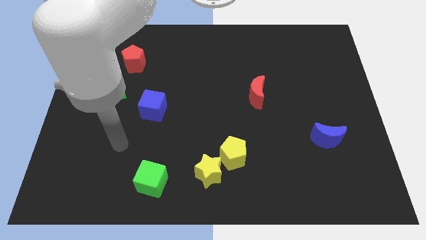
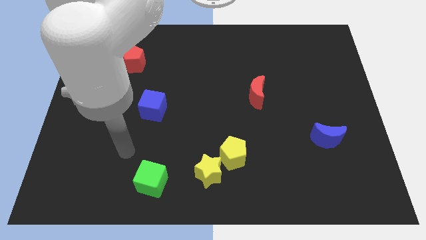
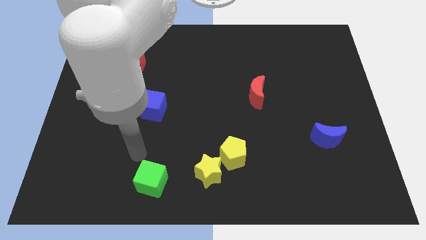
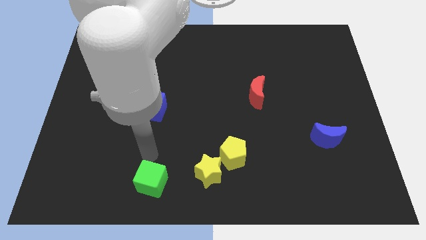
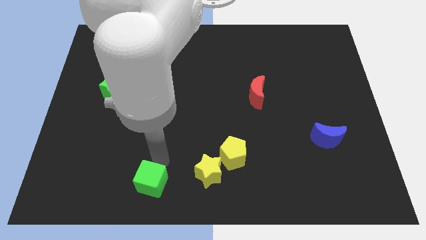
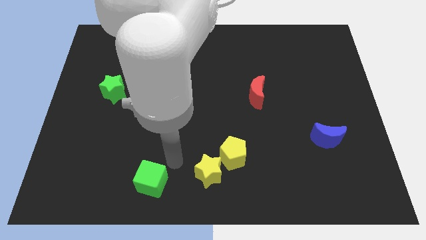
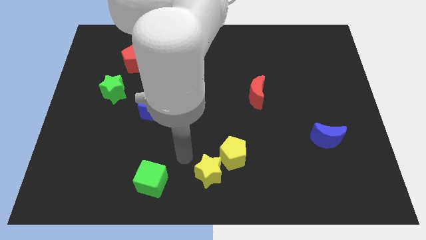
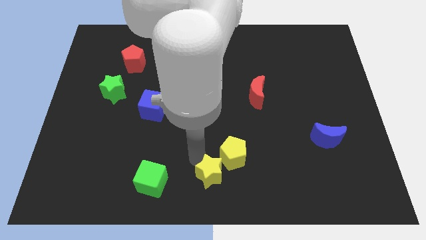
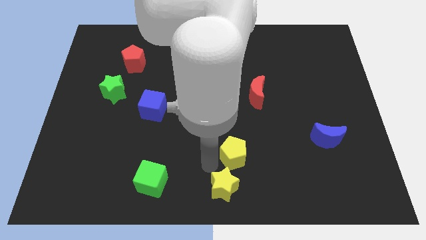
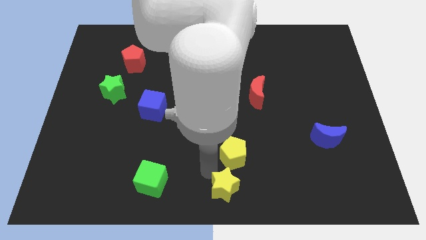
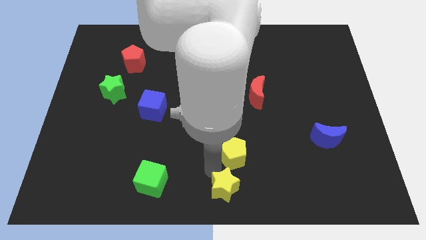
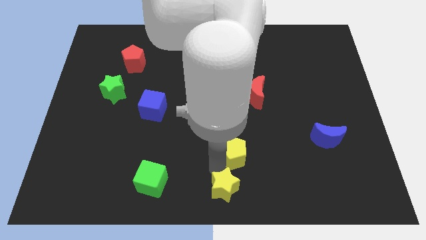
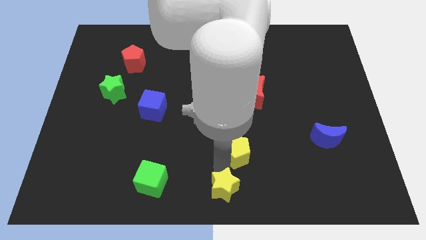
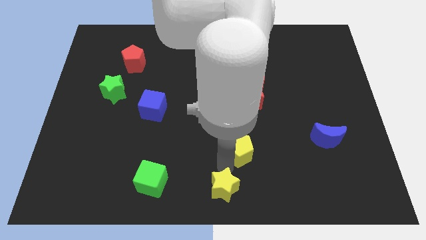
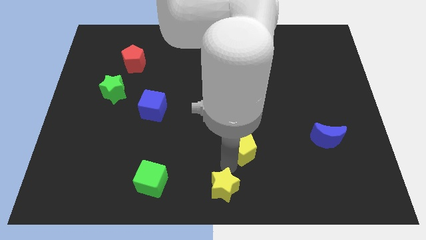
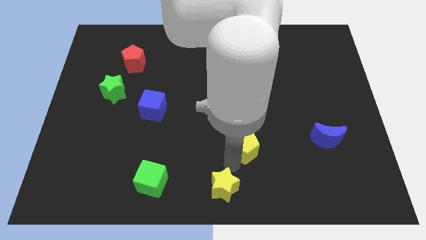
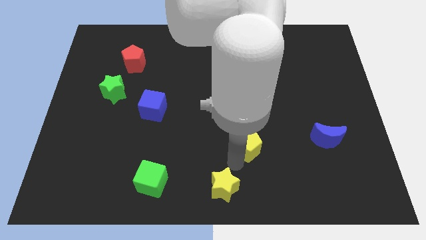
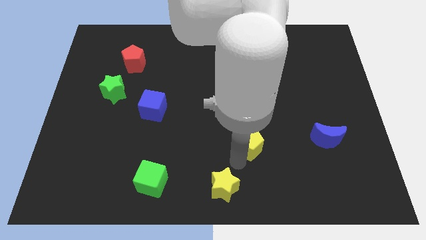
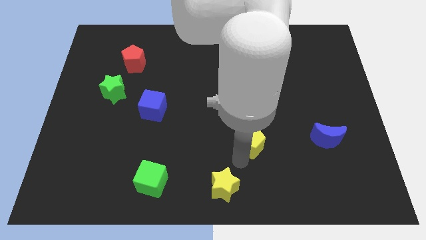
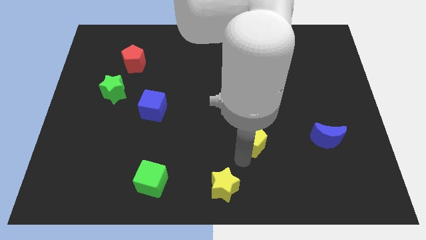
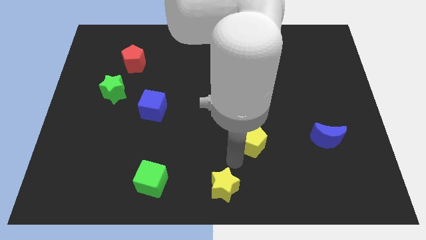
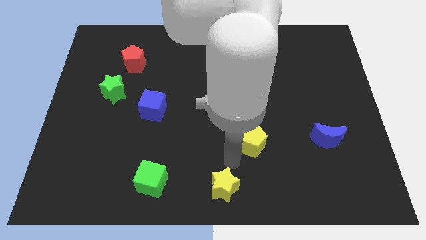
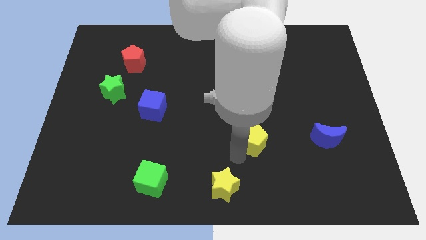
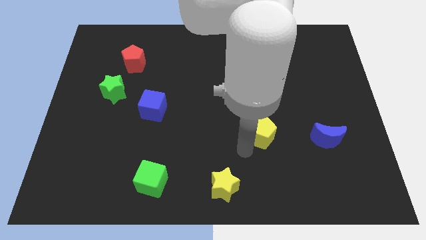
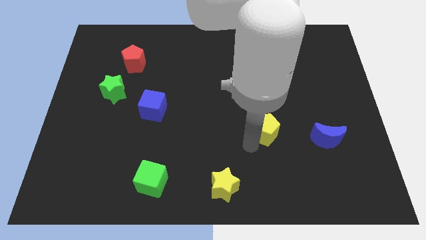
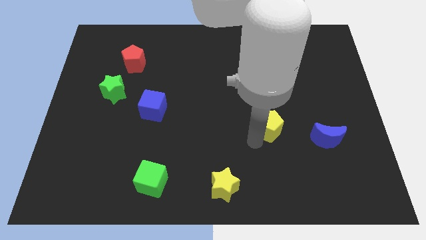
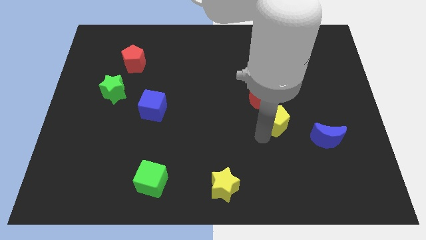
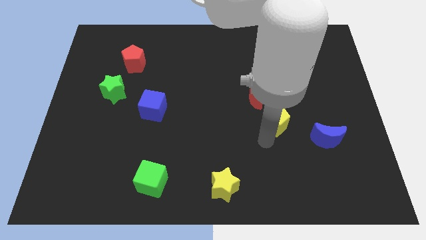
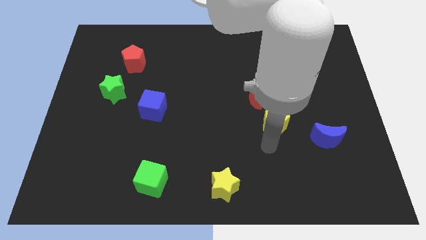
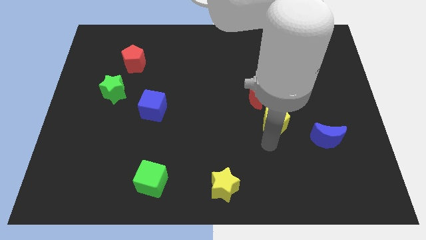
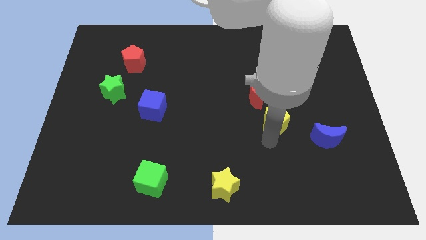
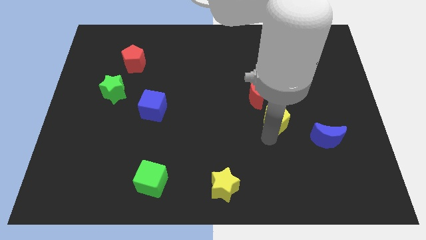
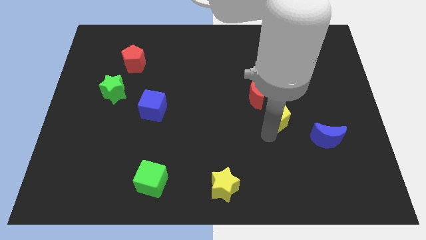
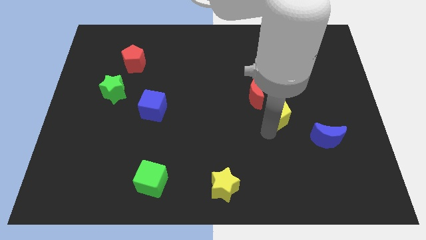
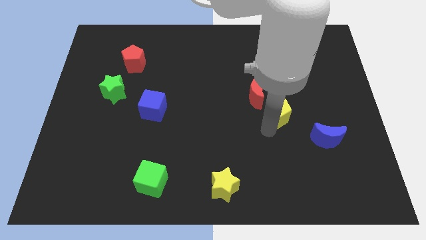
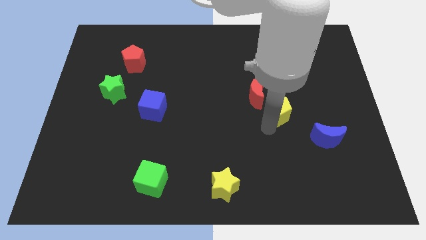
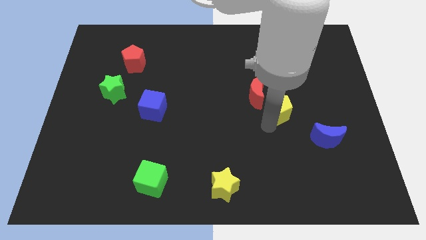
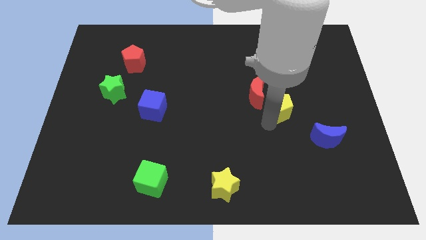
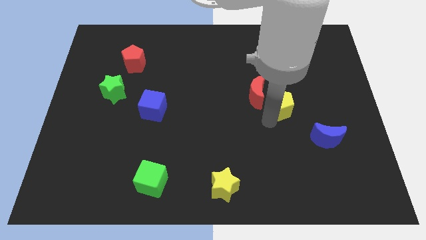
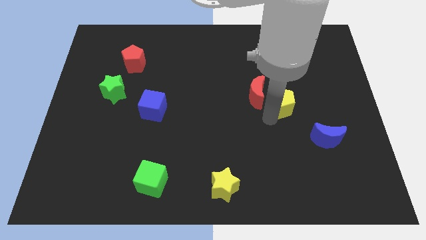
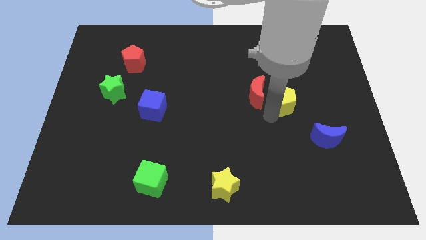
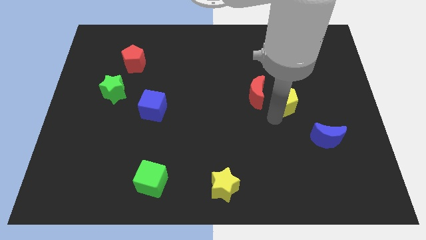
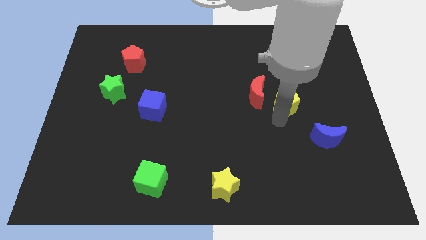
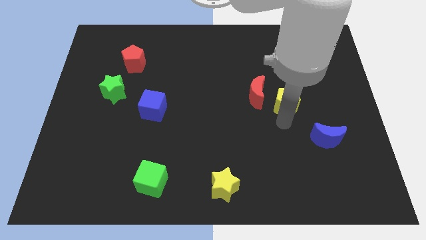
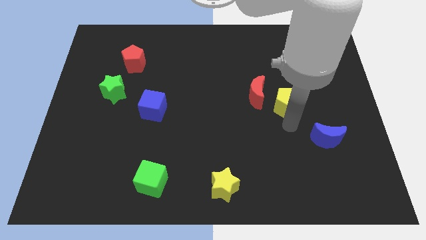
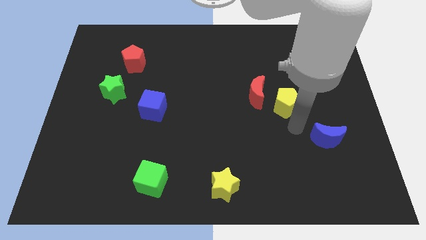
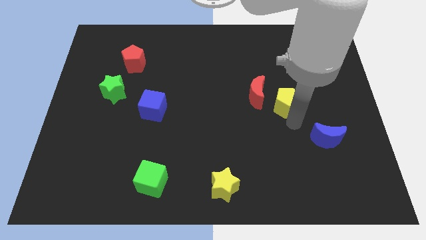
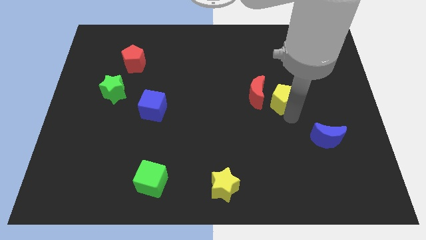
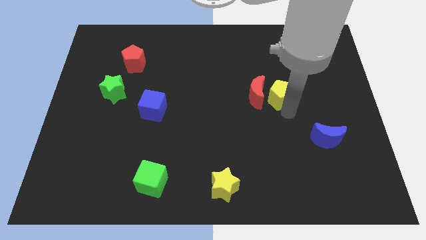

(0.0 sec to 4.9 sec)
push the yellow pentagon to the top right side of the red moon

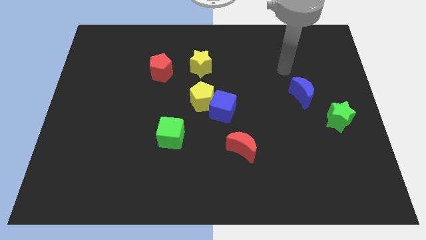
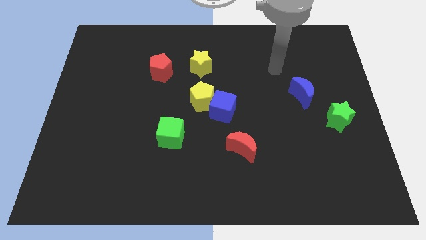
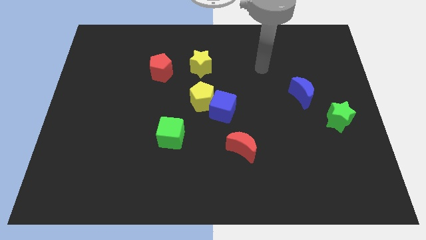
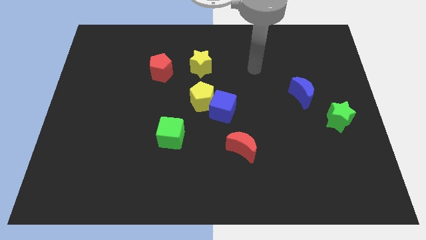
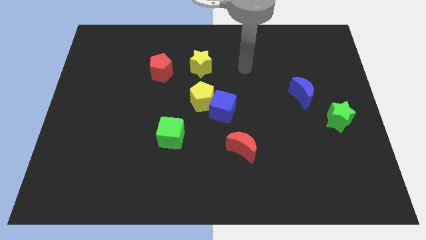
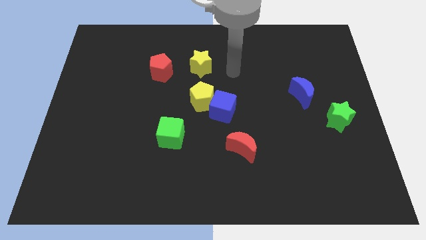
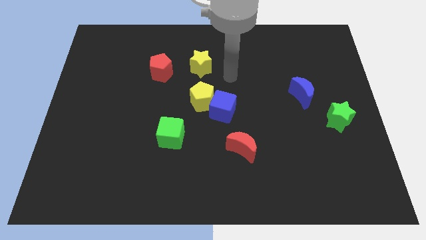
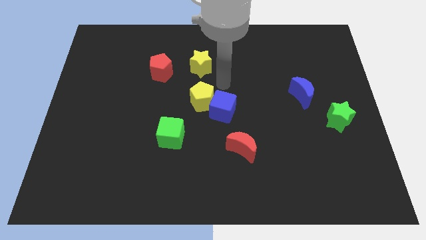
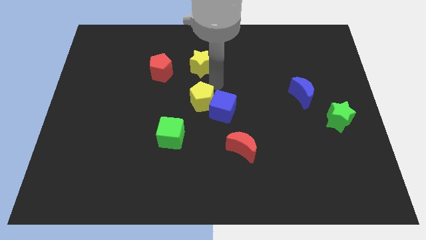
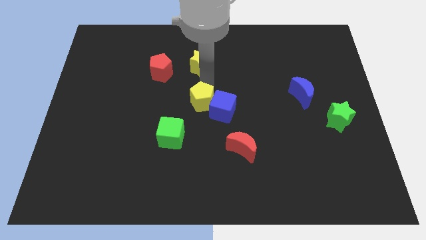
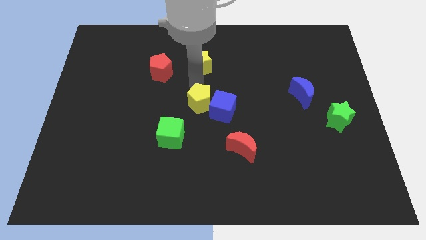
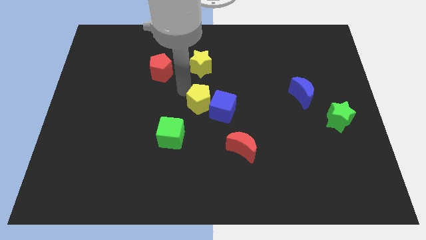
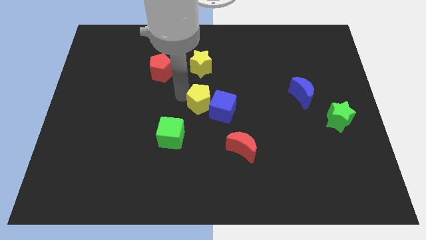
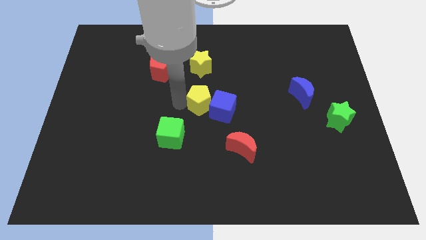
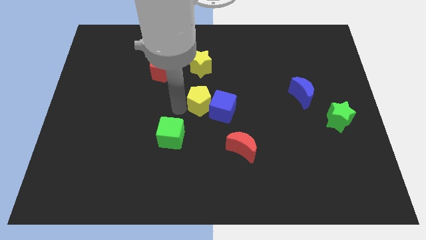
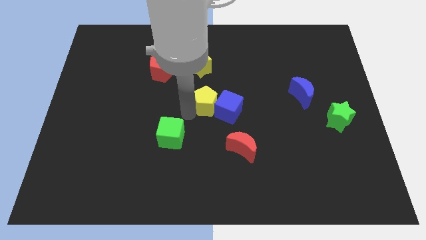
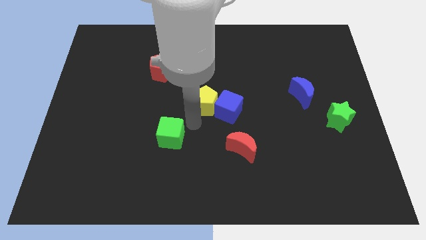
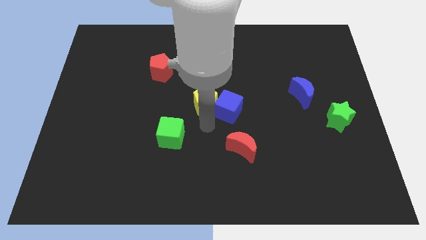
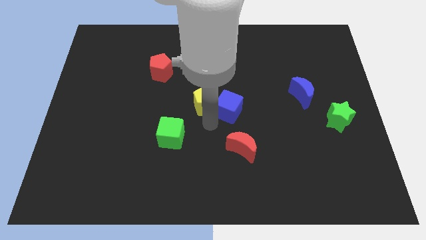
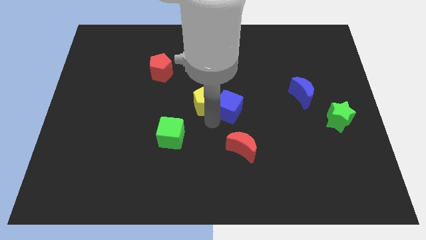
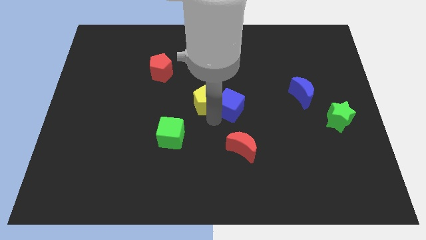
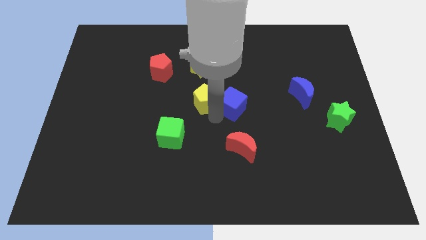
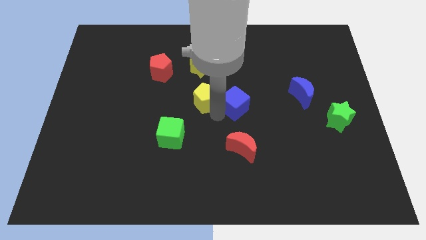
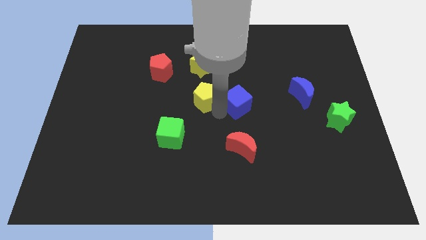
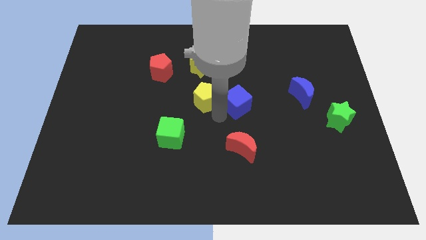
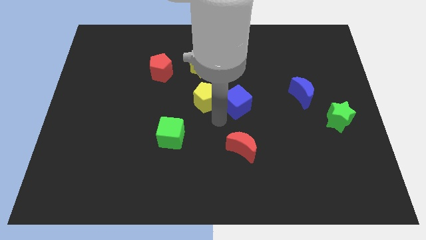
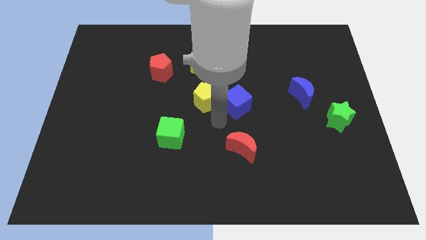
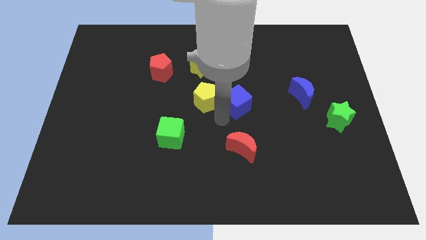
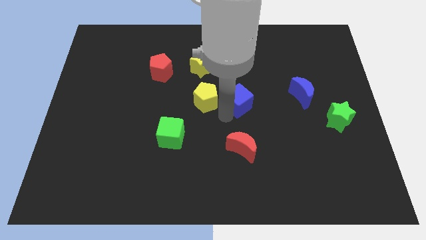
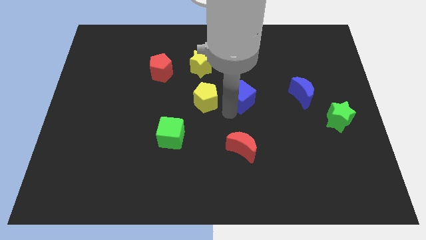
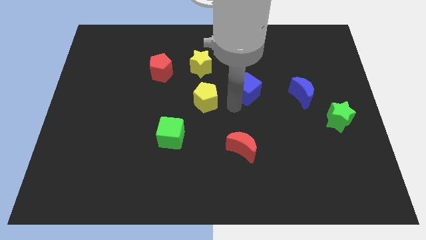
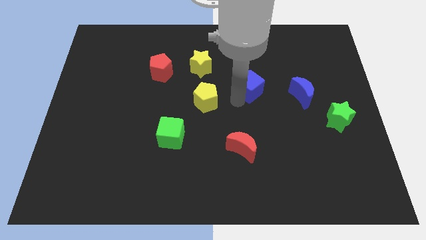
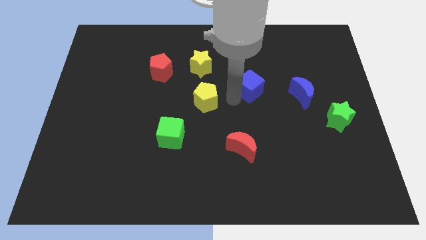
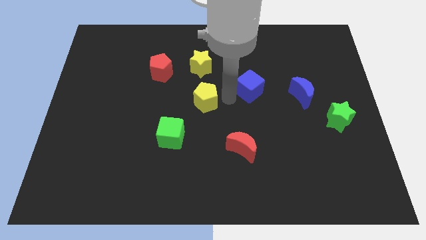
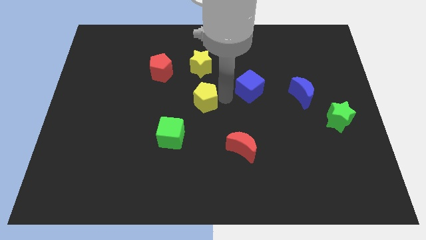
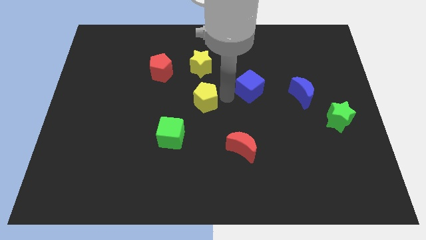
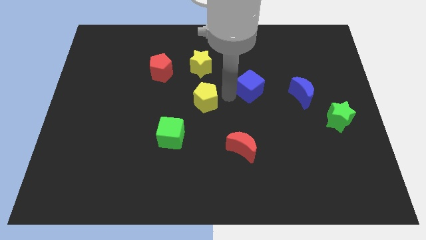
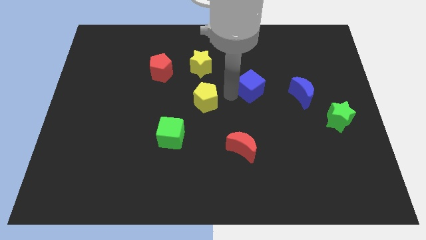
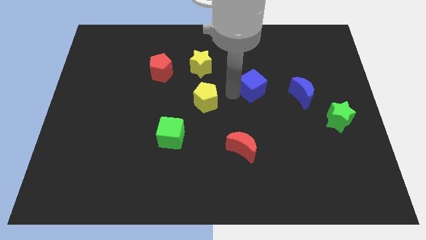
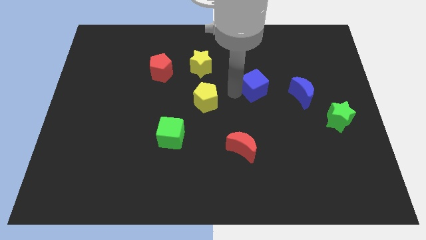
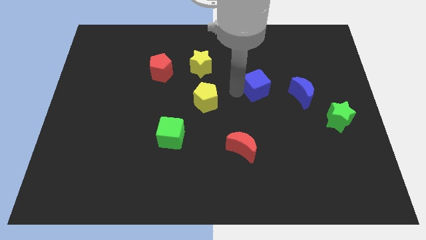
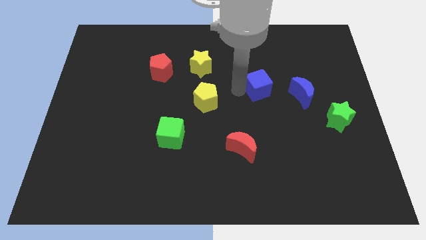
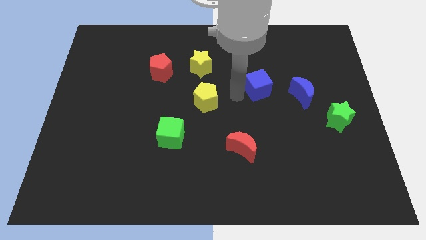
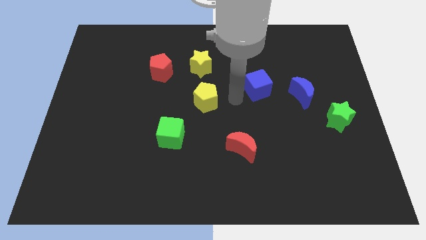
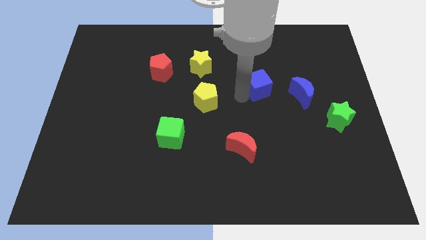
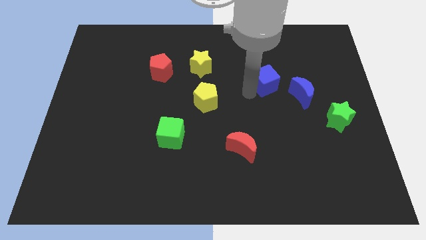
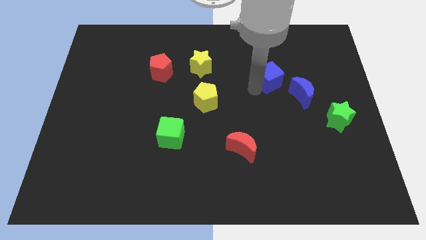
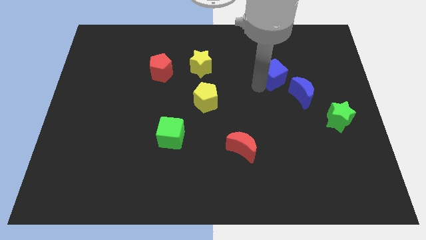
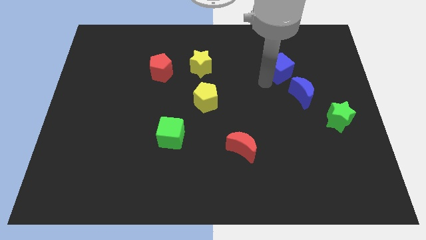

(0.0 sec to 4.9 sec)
put the blue cube to the top side of the blue moon
